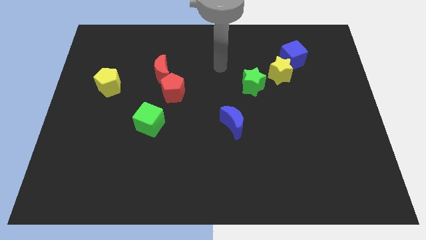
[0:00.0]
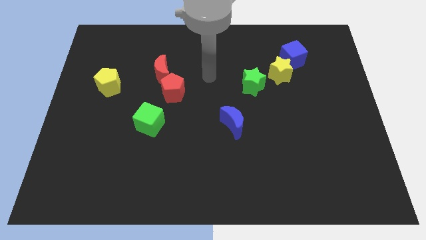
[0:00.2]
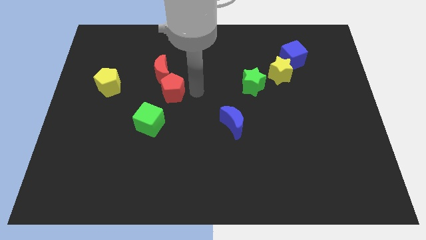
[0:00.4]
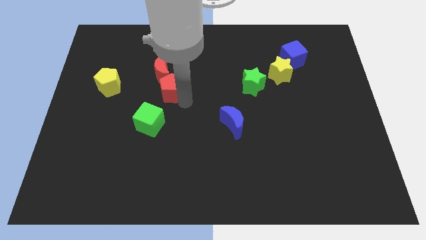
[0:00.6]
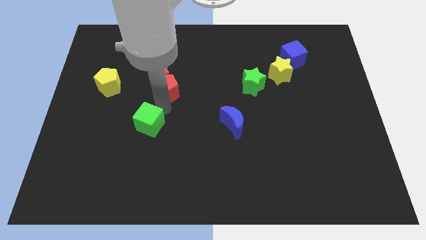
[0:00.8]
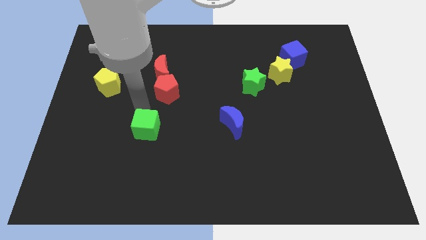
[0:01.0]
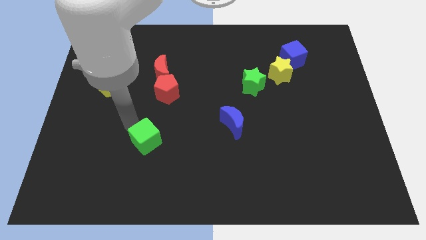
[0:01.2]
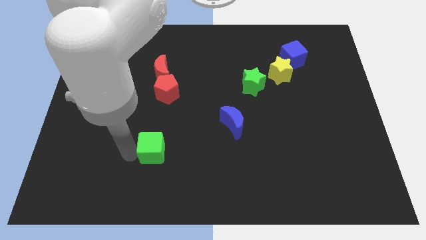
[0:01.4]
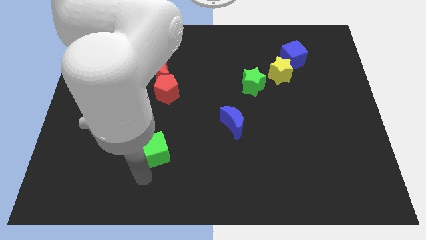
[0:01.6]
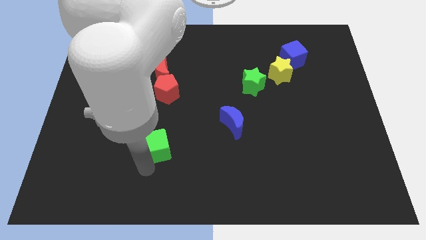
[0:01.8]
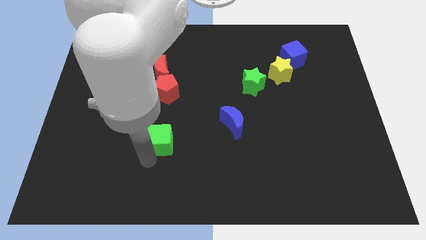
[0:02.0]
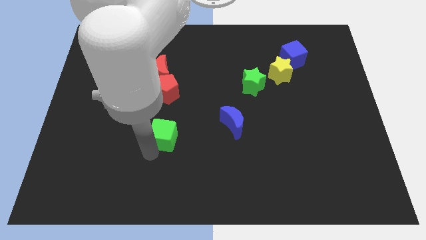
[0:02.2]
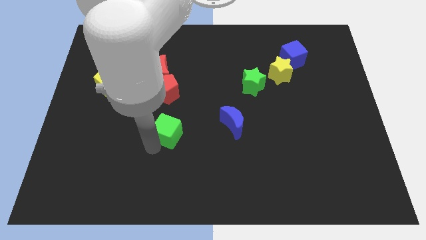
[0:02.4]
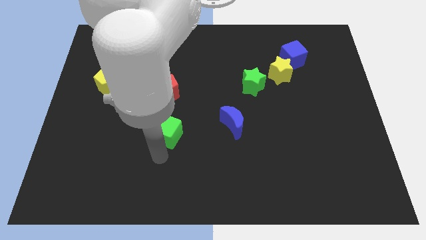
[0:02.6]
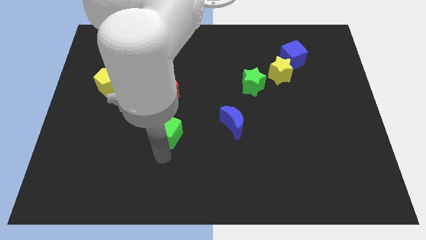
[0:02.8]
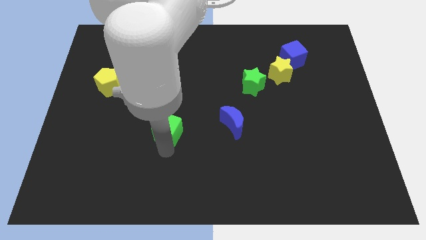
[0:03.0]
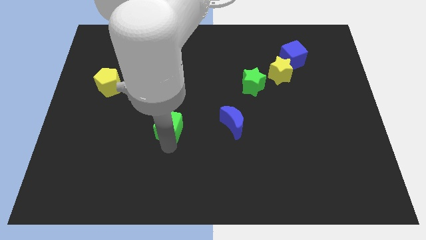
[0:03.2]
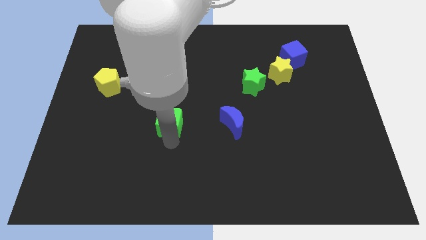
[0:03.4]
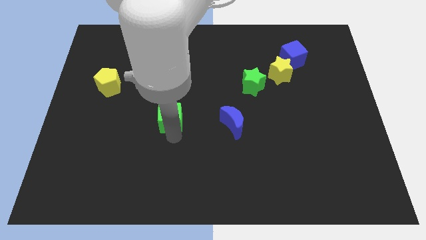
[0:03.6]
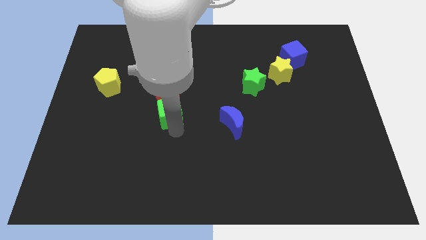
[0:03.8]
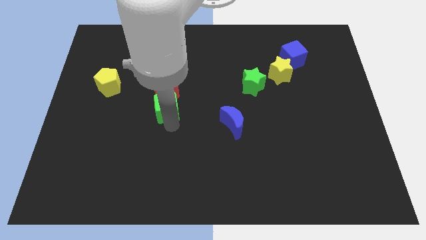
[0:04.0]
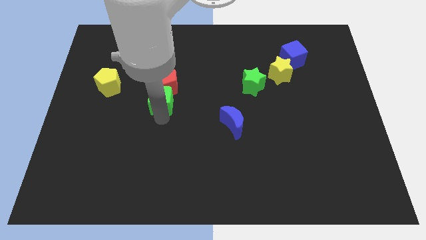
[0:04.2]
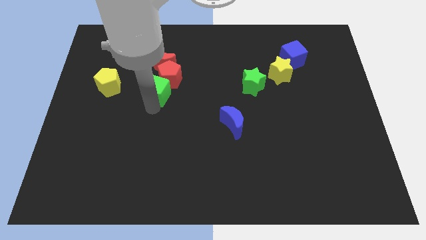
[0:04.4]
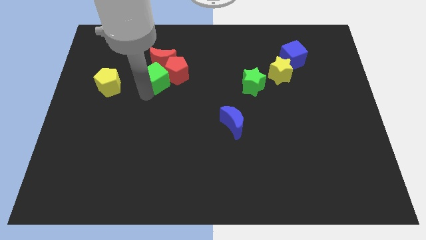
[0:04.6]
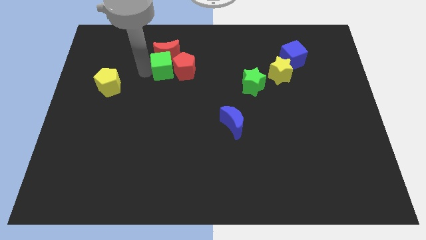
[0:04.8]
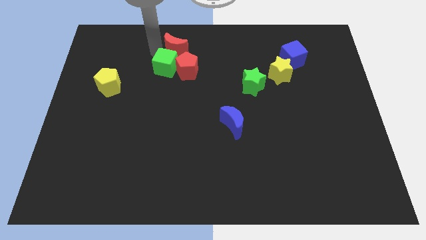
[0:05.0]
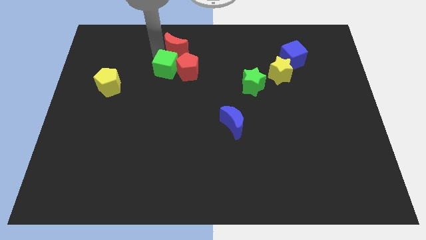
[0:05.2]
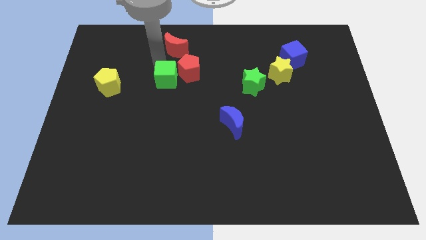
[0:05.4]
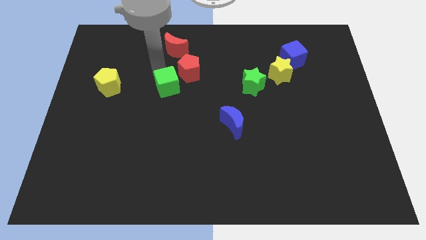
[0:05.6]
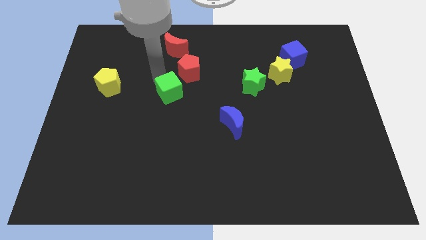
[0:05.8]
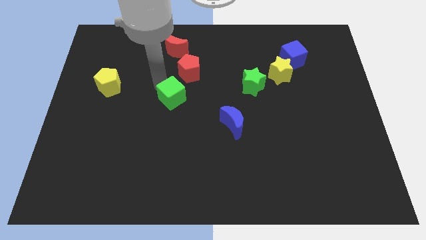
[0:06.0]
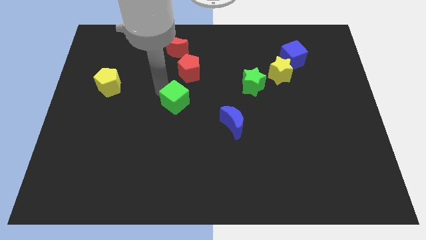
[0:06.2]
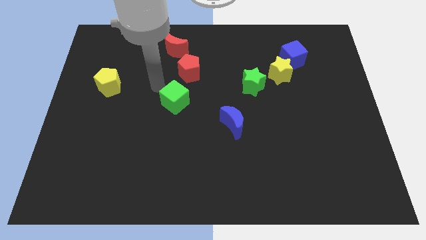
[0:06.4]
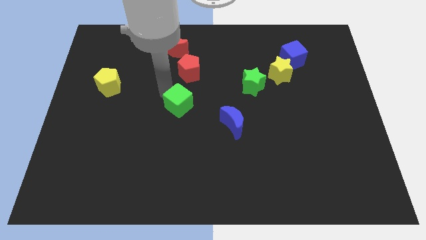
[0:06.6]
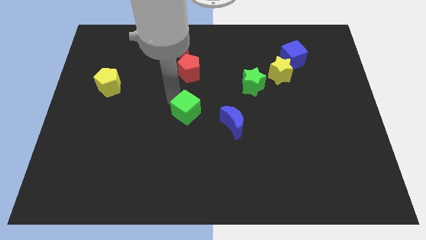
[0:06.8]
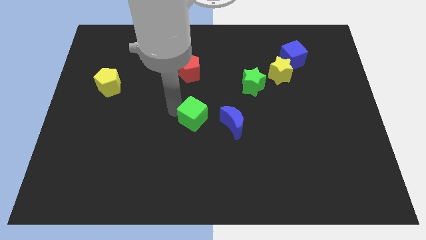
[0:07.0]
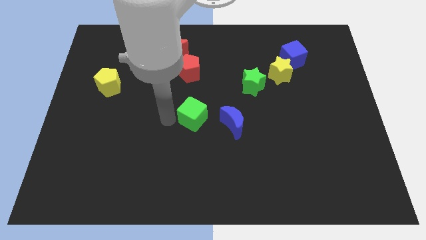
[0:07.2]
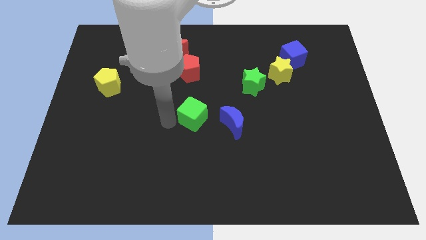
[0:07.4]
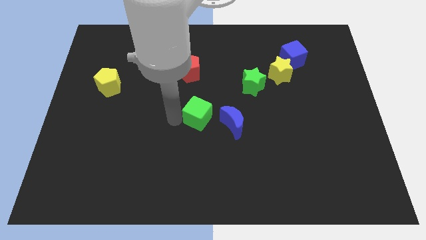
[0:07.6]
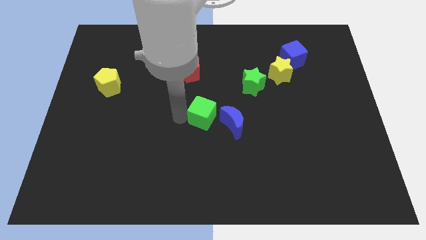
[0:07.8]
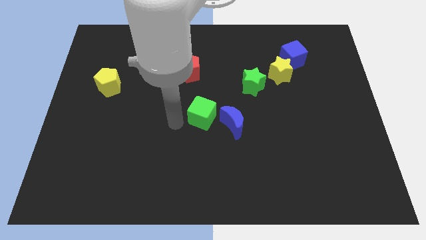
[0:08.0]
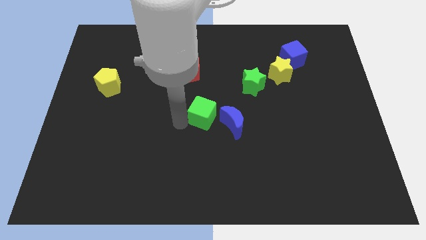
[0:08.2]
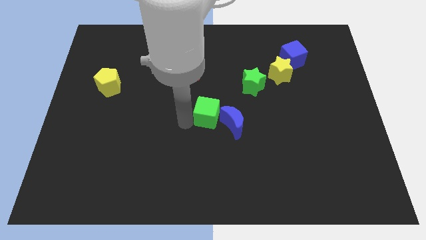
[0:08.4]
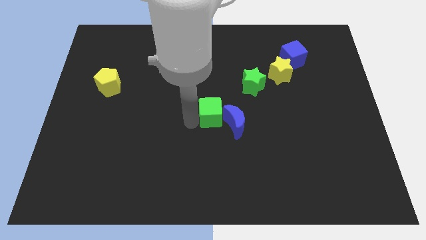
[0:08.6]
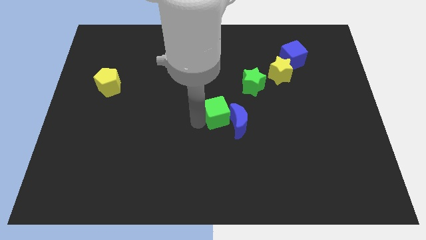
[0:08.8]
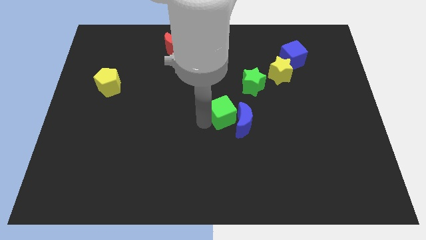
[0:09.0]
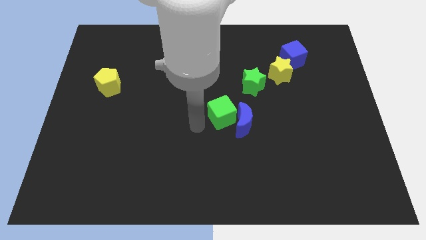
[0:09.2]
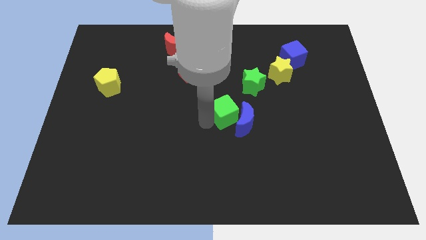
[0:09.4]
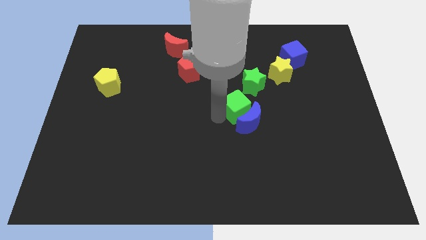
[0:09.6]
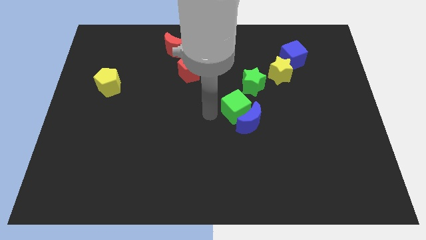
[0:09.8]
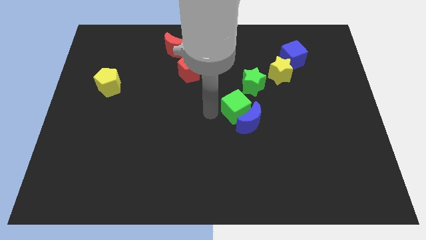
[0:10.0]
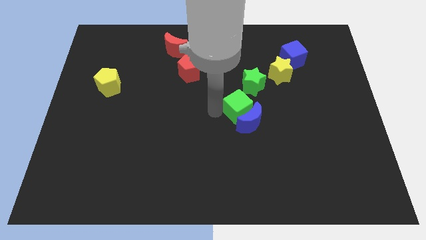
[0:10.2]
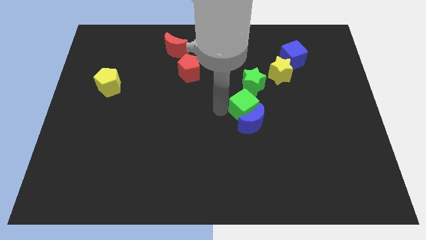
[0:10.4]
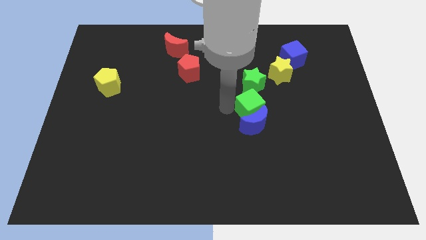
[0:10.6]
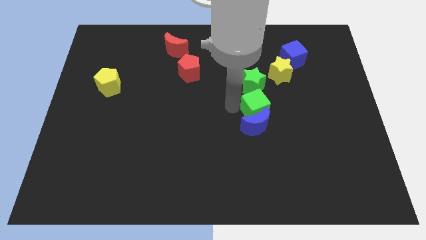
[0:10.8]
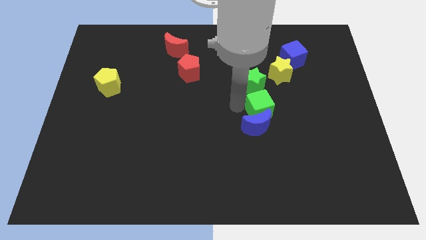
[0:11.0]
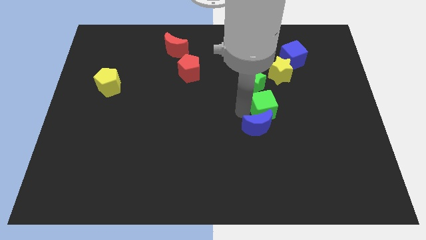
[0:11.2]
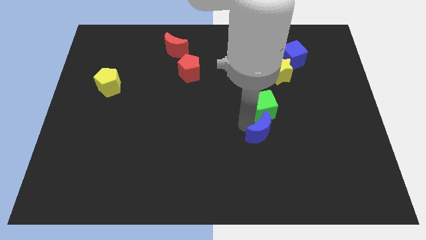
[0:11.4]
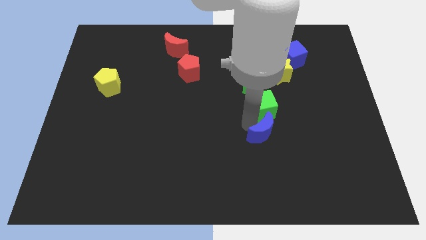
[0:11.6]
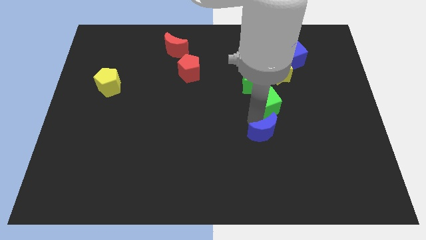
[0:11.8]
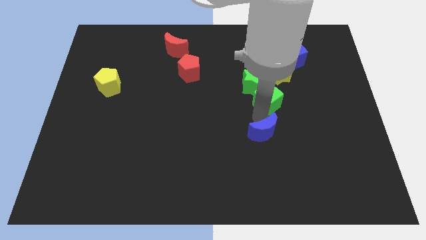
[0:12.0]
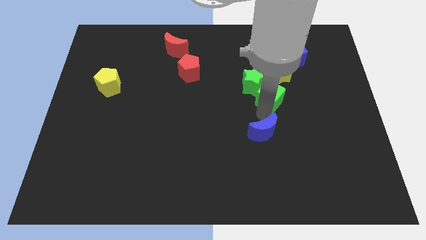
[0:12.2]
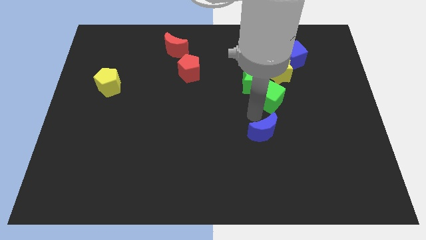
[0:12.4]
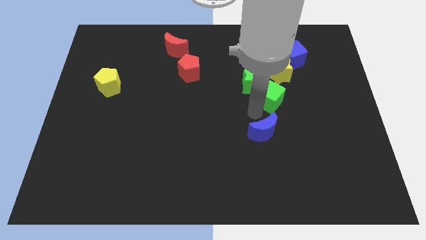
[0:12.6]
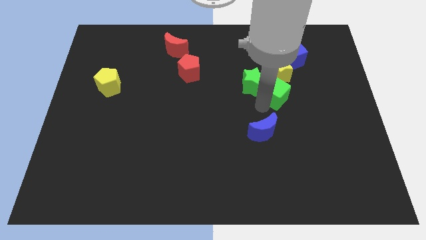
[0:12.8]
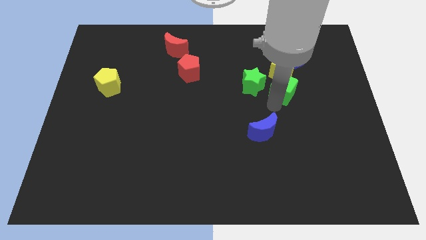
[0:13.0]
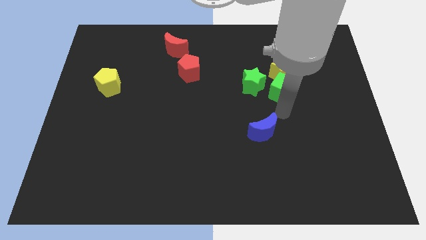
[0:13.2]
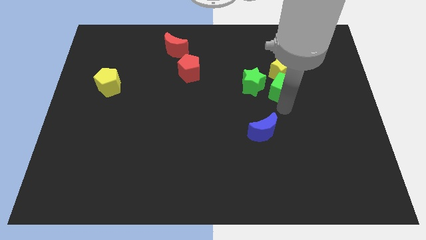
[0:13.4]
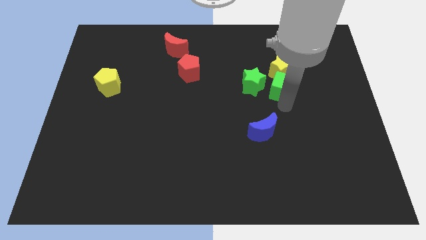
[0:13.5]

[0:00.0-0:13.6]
put the green cube close to the yellow star

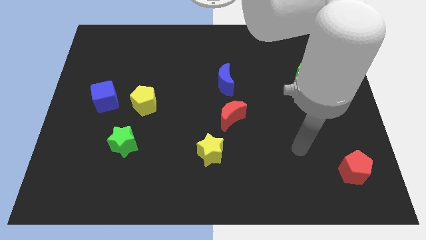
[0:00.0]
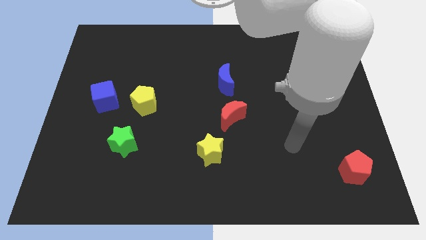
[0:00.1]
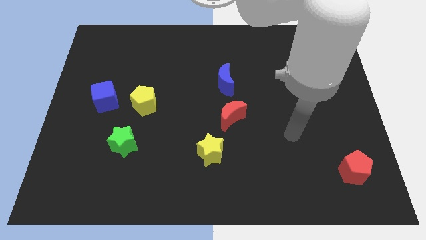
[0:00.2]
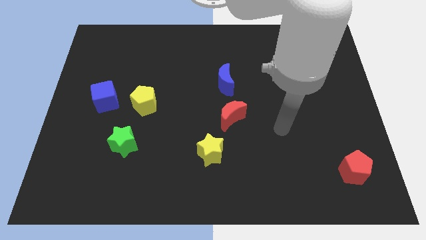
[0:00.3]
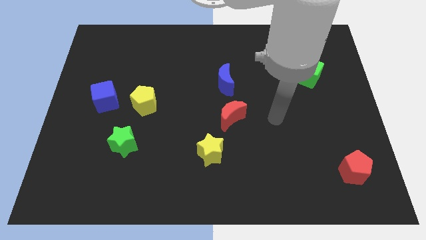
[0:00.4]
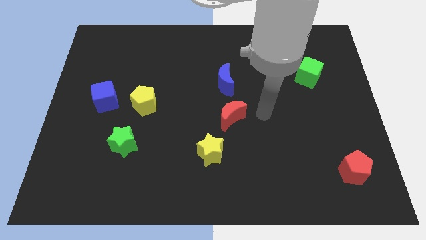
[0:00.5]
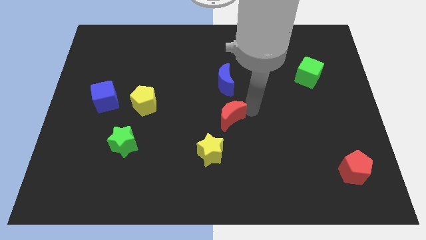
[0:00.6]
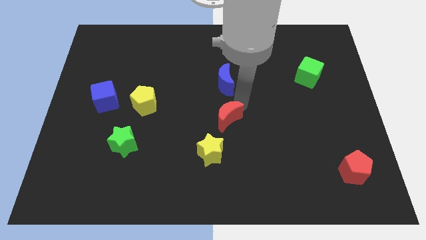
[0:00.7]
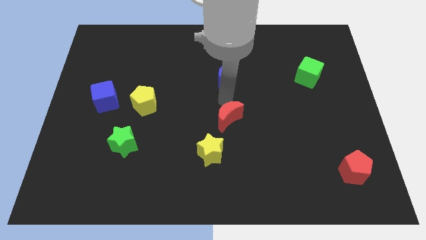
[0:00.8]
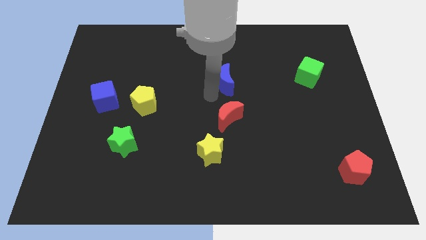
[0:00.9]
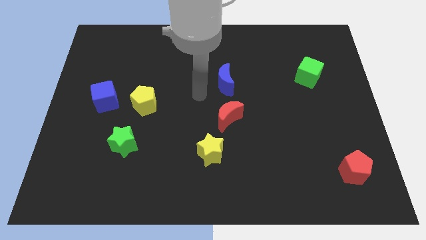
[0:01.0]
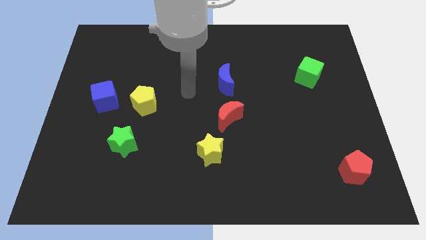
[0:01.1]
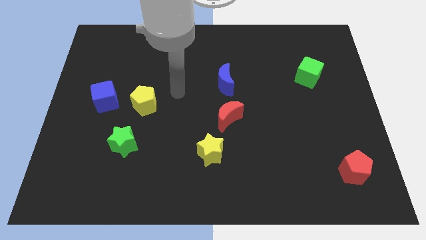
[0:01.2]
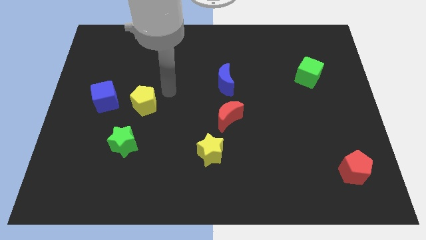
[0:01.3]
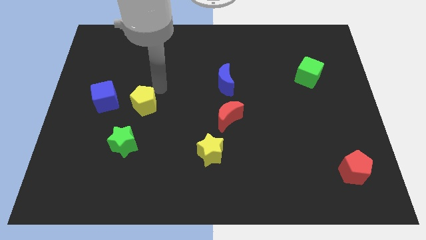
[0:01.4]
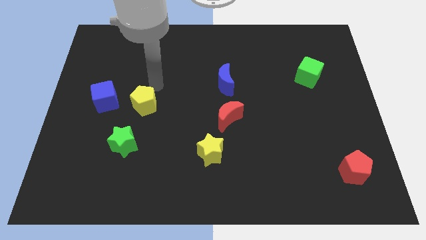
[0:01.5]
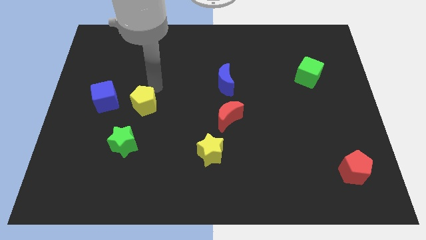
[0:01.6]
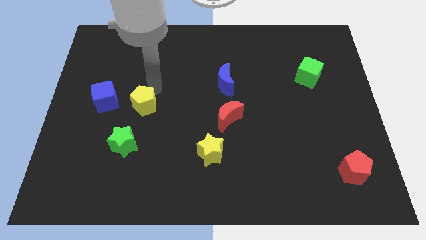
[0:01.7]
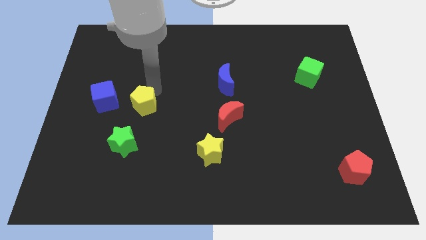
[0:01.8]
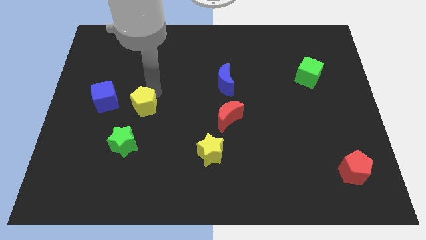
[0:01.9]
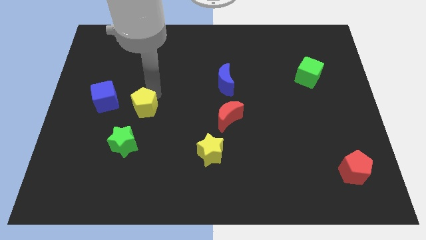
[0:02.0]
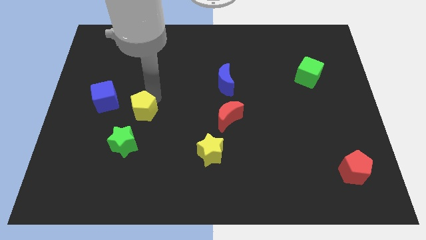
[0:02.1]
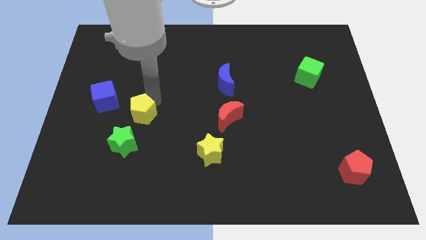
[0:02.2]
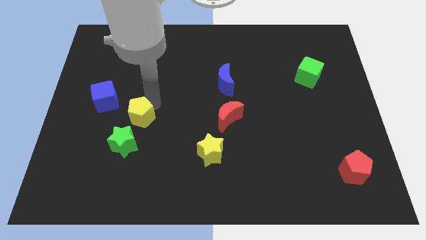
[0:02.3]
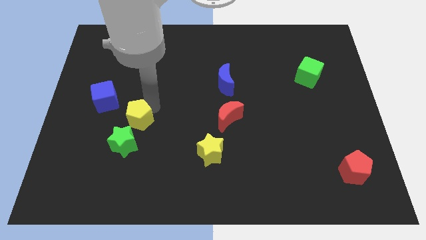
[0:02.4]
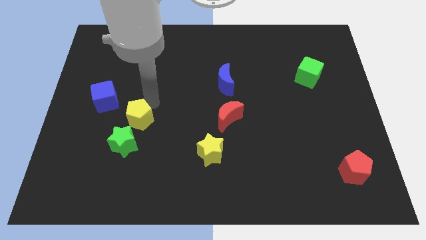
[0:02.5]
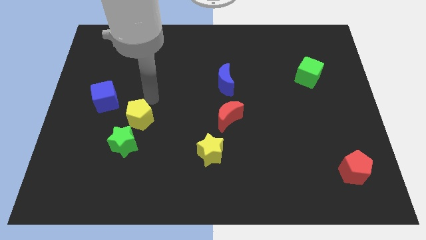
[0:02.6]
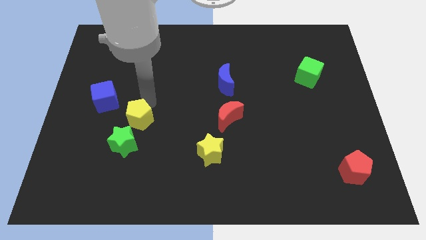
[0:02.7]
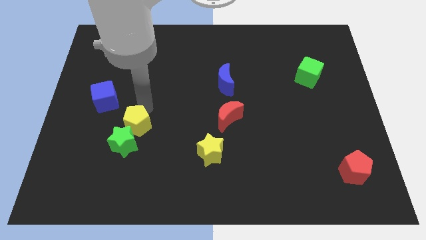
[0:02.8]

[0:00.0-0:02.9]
move the yellow pentagon close to the green star
